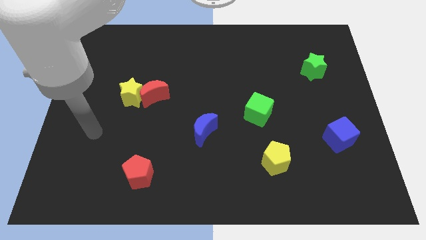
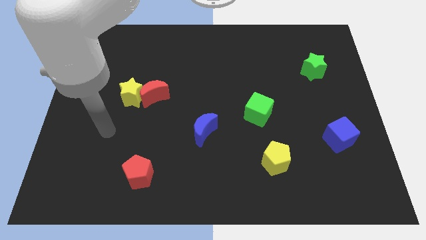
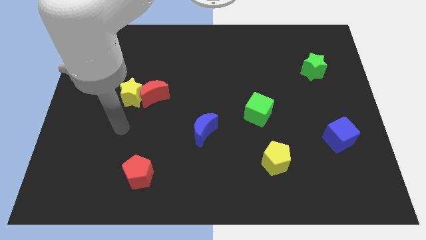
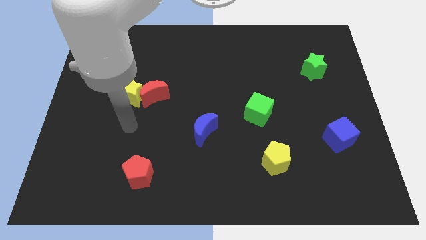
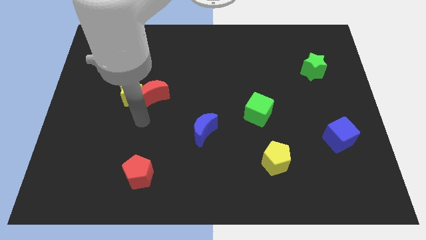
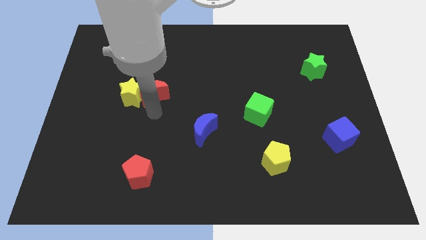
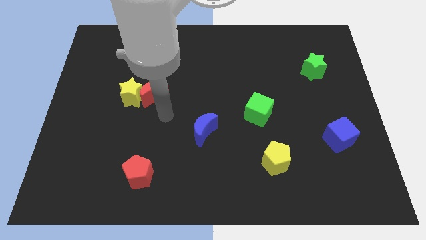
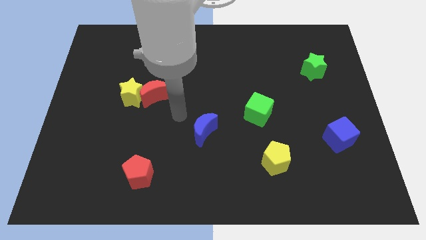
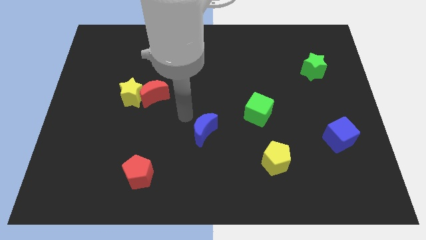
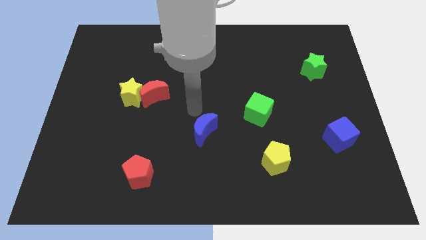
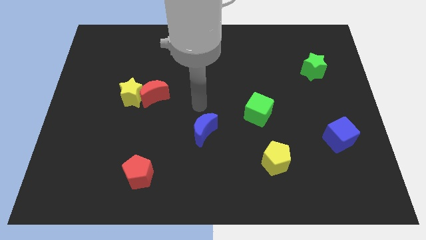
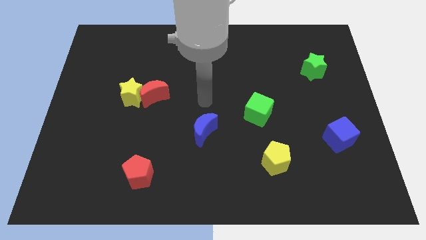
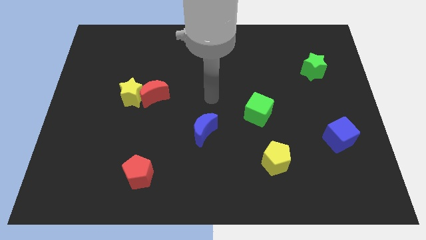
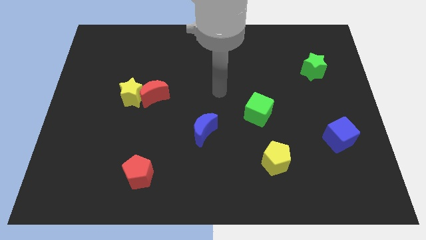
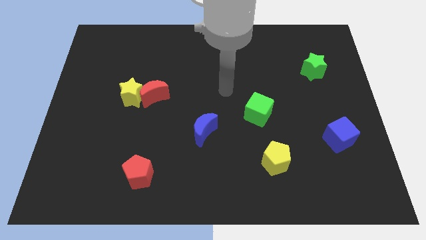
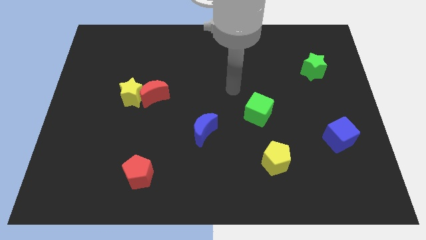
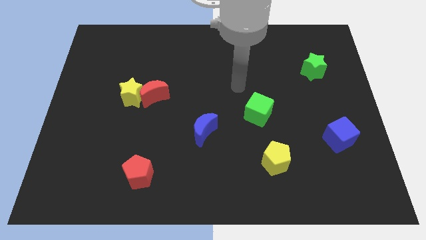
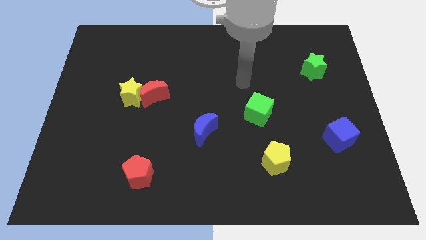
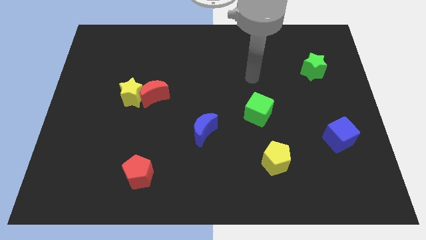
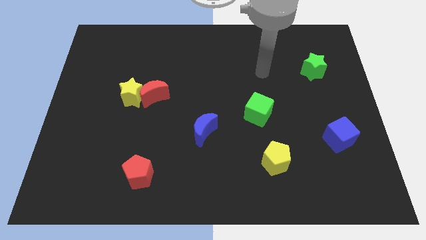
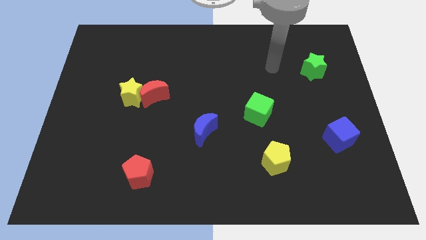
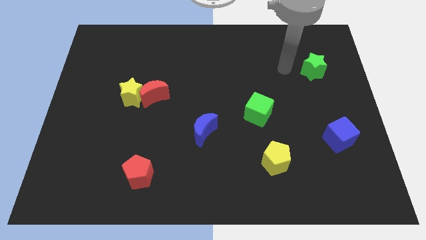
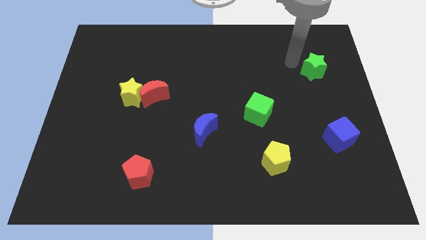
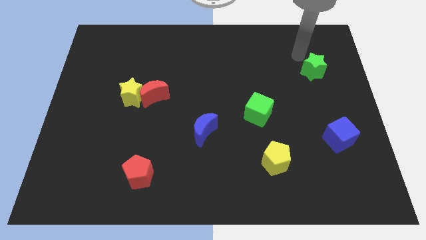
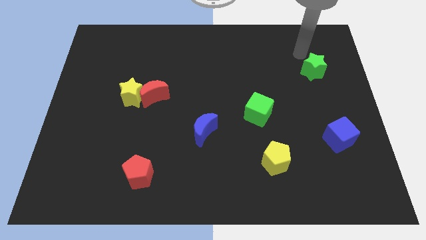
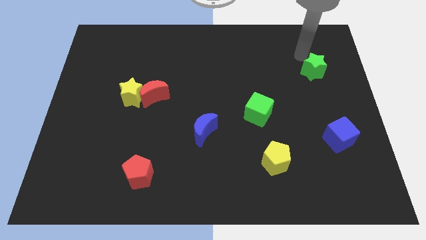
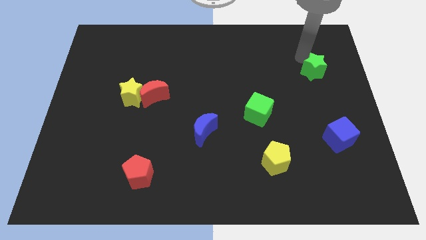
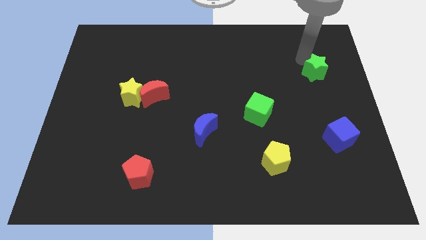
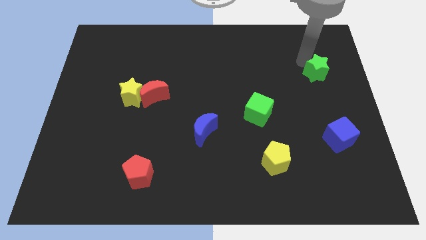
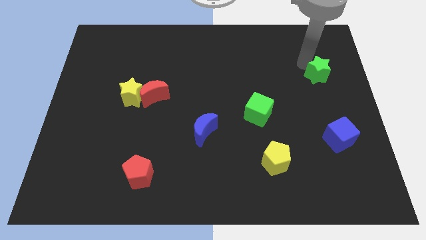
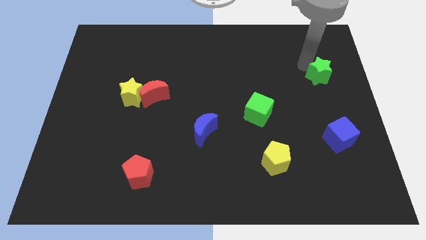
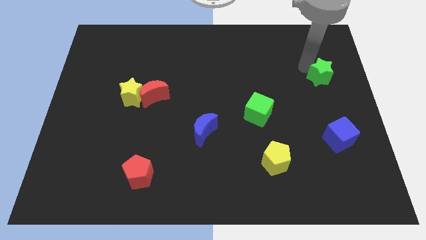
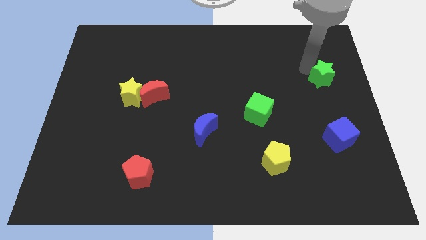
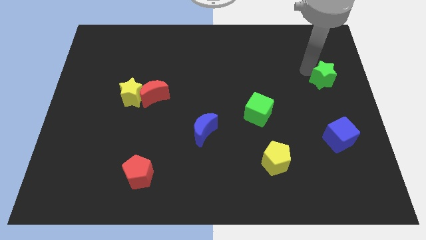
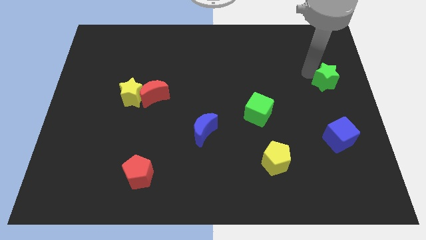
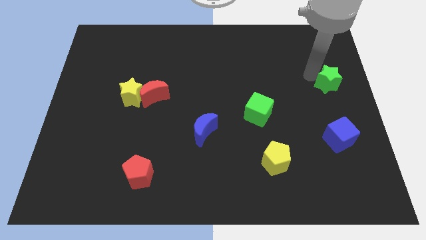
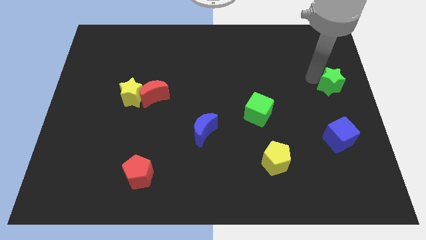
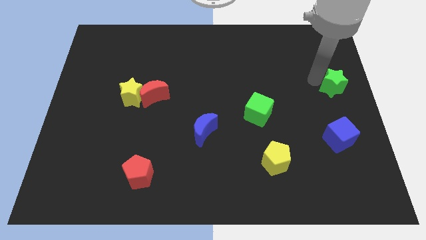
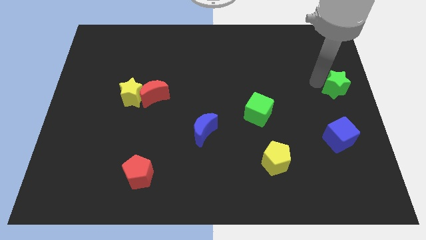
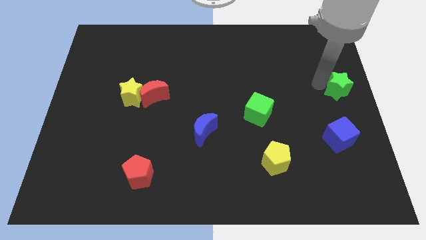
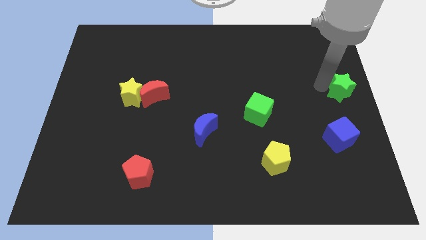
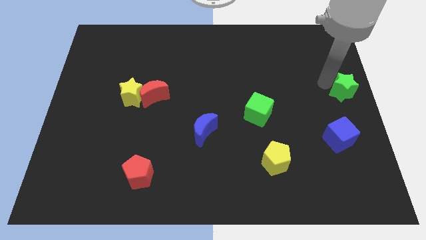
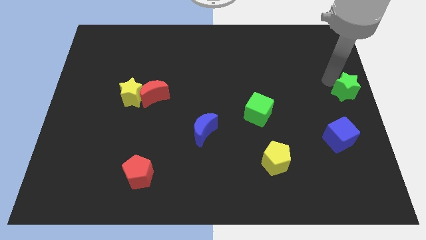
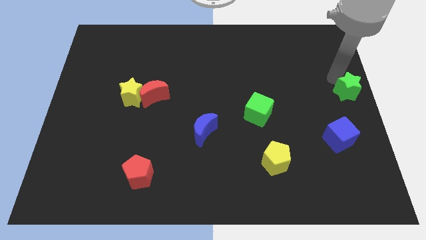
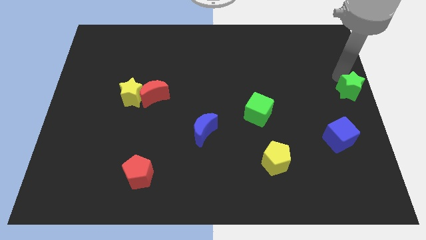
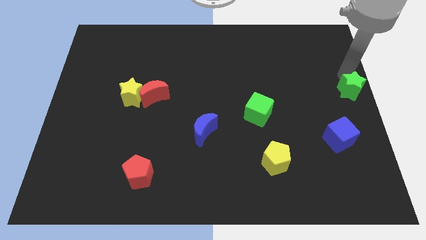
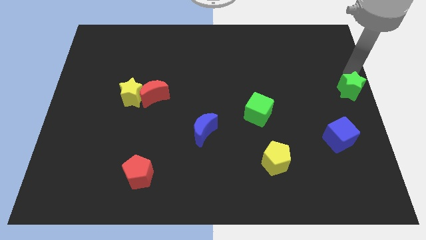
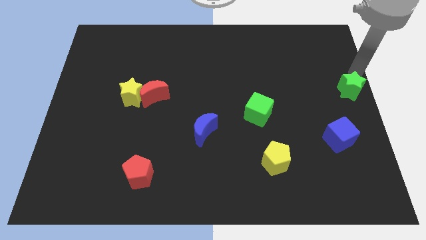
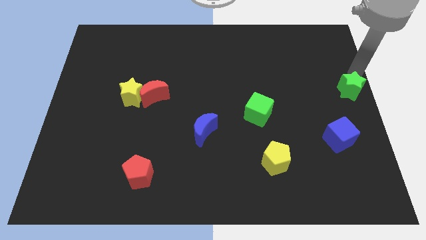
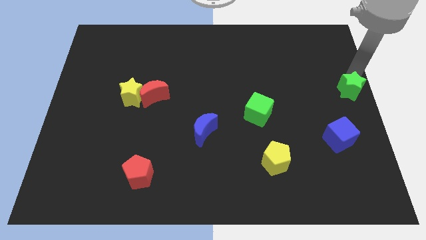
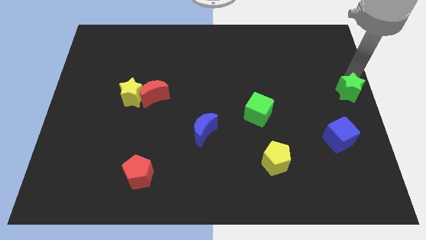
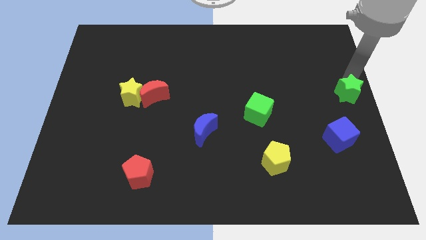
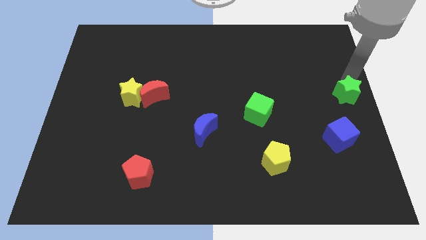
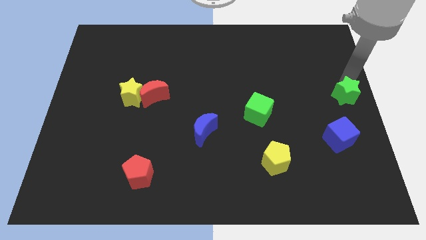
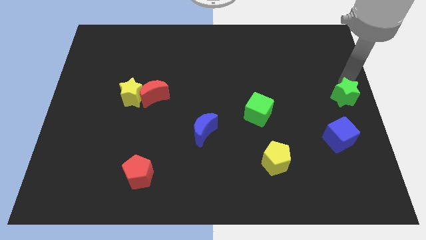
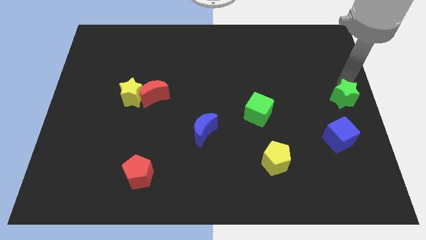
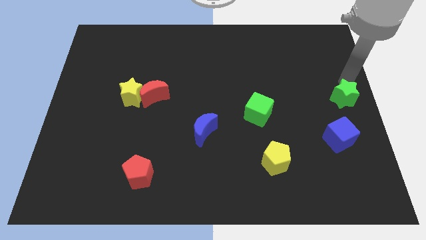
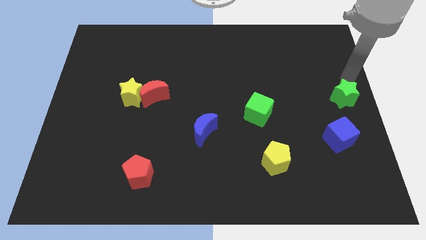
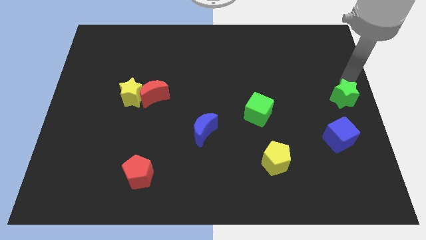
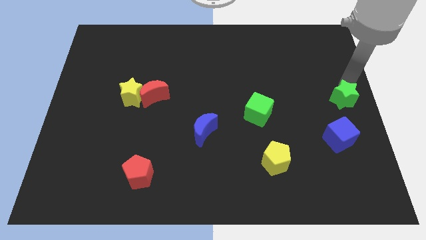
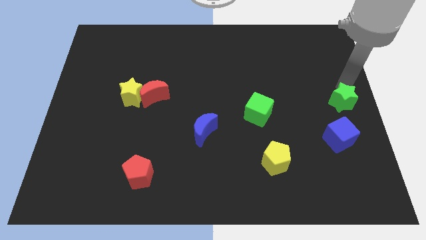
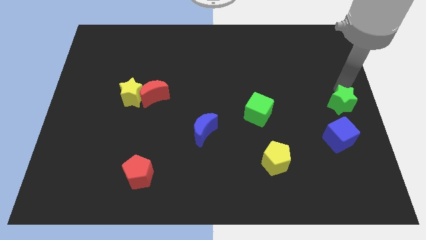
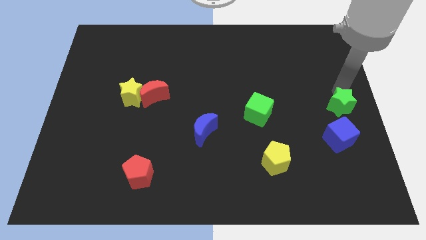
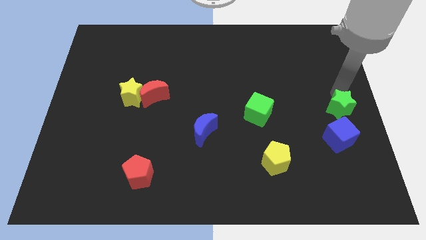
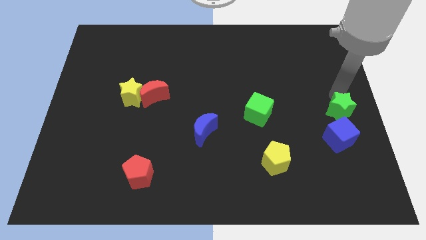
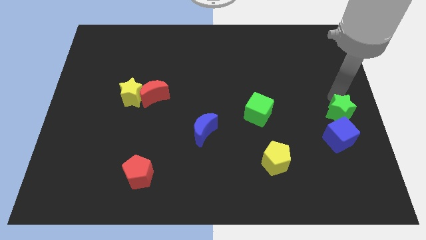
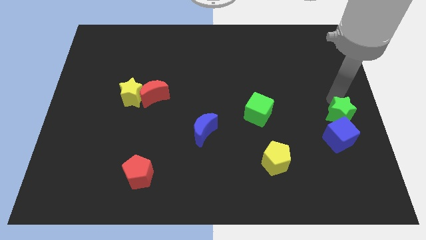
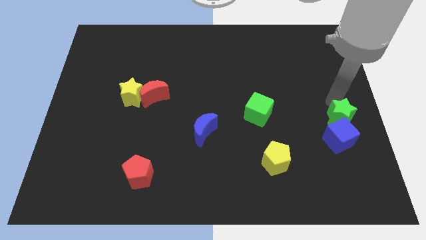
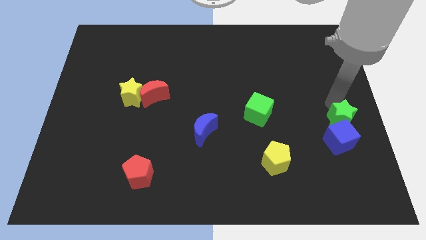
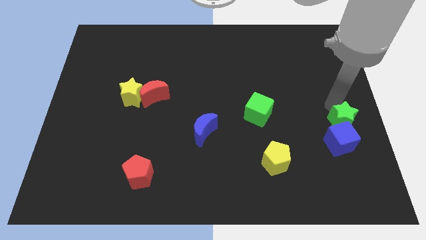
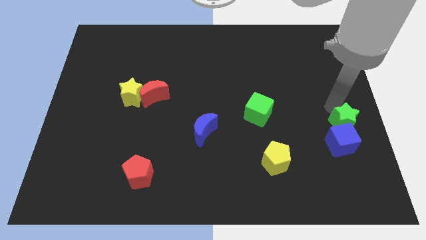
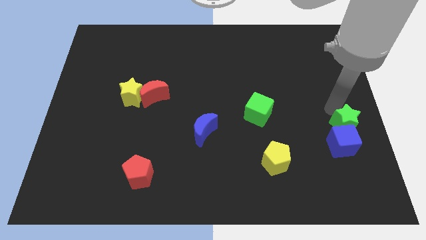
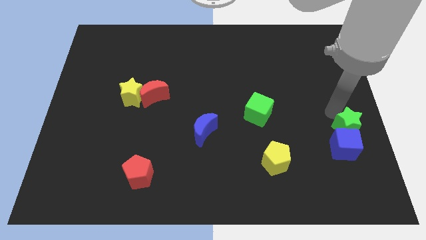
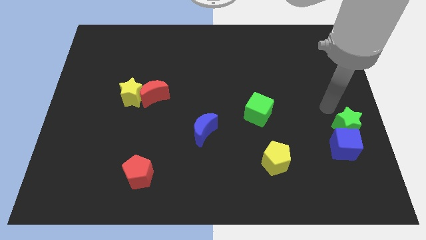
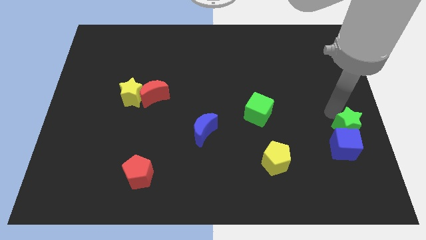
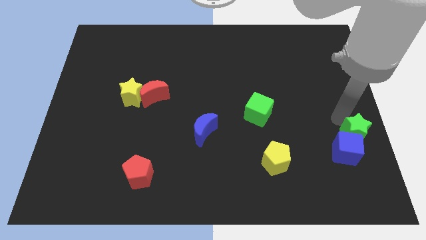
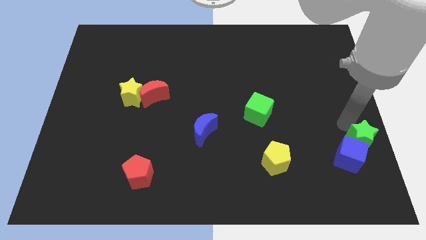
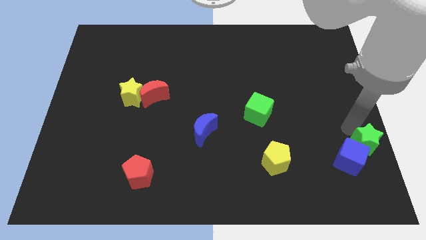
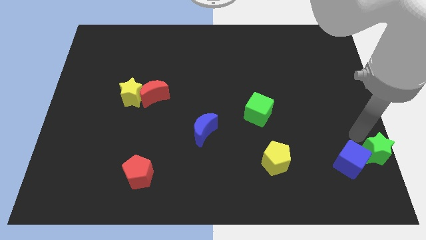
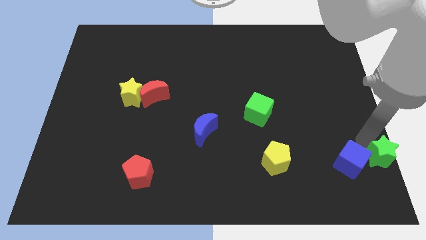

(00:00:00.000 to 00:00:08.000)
push the green star to the lower right corner
